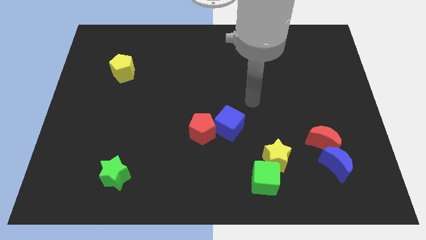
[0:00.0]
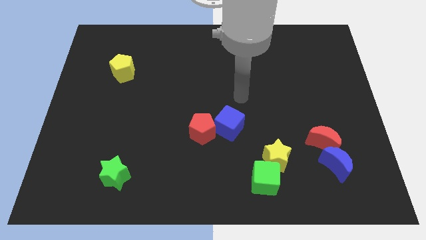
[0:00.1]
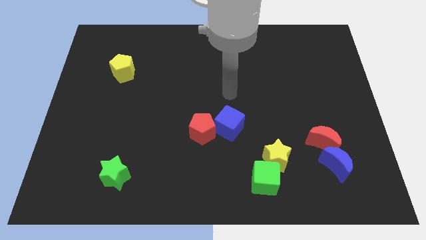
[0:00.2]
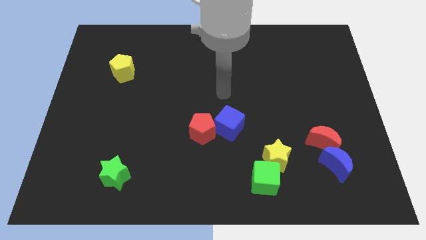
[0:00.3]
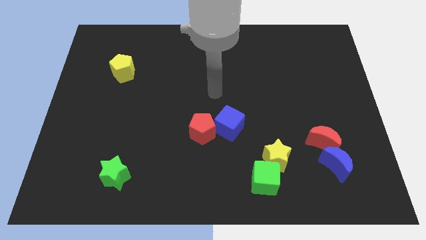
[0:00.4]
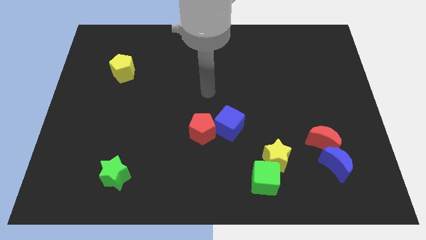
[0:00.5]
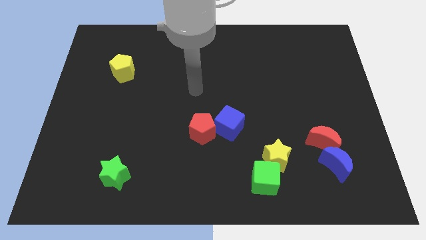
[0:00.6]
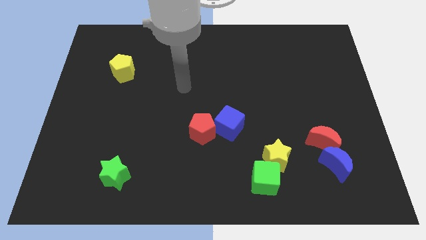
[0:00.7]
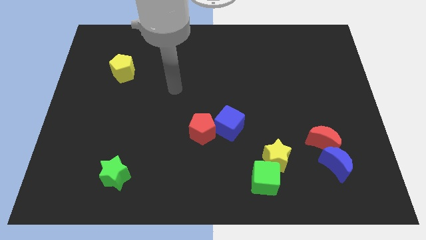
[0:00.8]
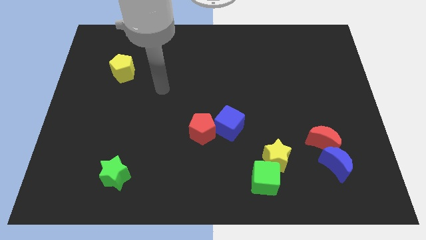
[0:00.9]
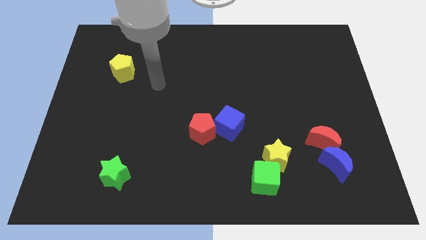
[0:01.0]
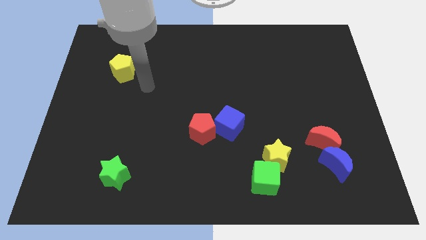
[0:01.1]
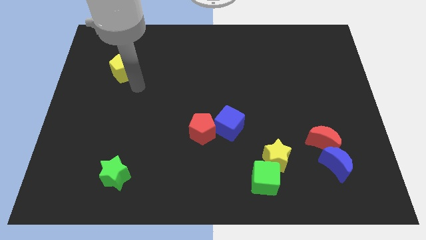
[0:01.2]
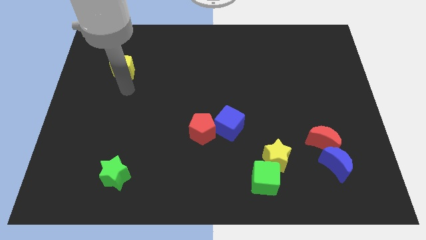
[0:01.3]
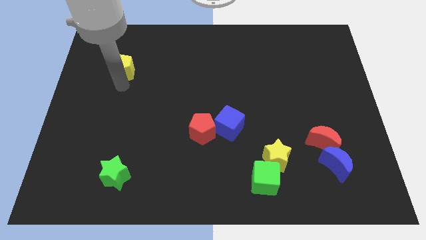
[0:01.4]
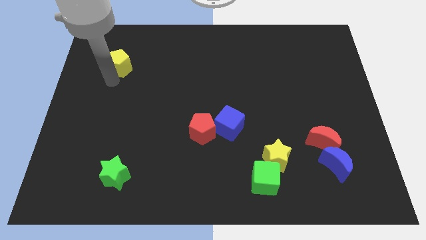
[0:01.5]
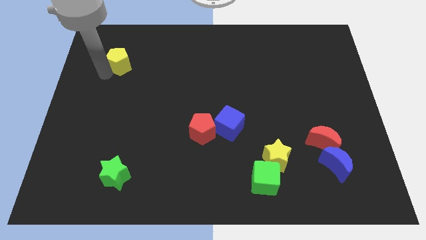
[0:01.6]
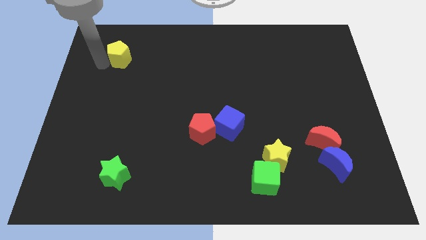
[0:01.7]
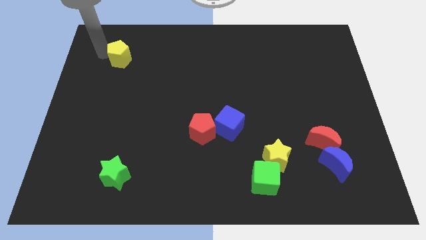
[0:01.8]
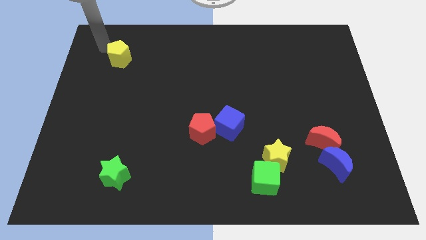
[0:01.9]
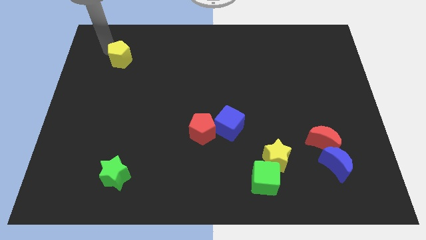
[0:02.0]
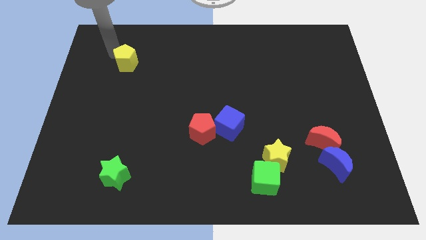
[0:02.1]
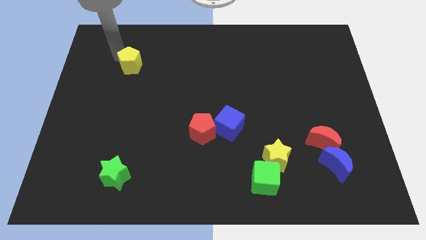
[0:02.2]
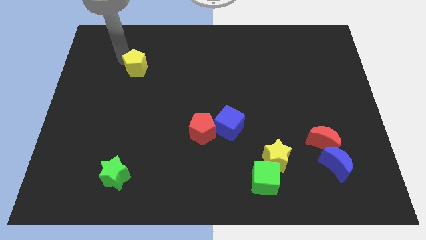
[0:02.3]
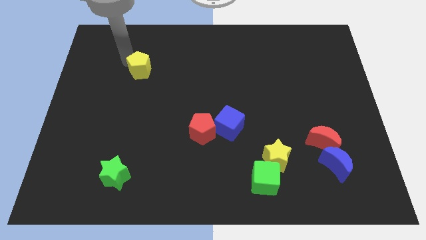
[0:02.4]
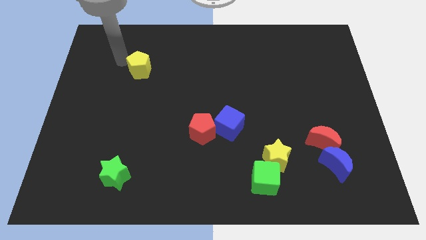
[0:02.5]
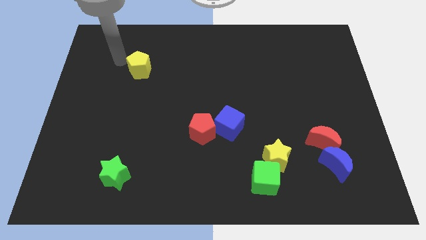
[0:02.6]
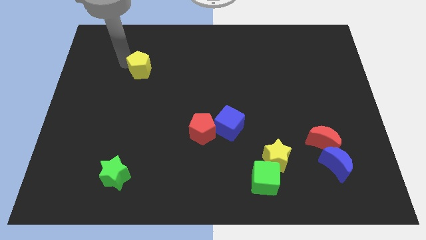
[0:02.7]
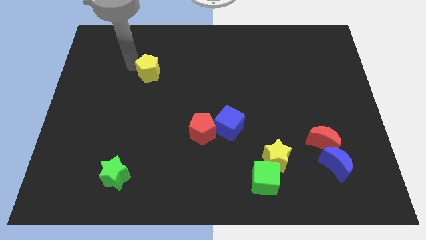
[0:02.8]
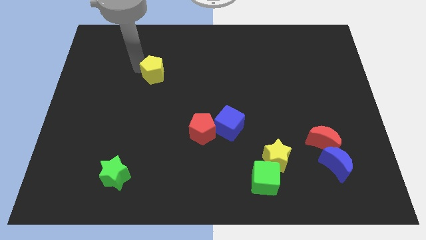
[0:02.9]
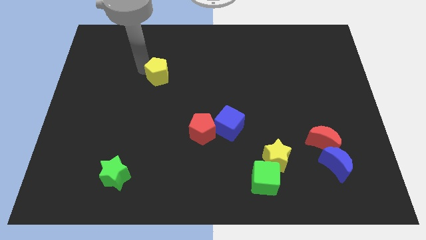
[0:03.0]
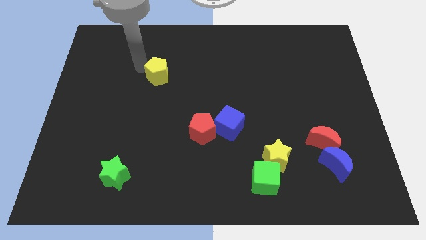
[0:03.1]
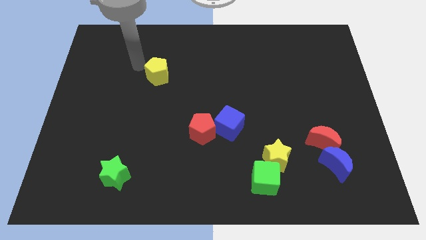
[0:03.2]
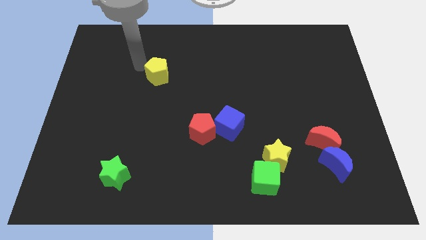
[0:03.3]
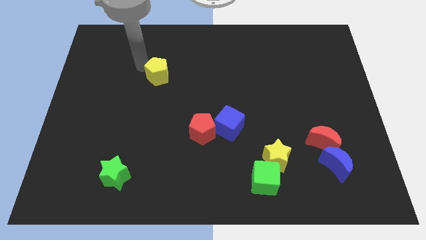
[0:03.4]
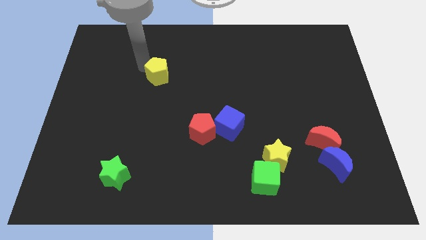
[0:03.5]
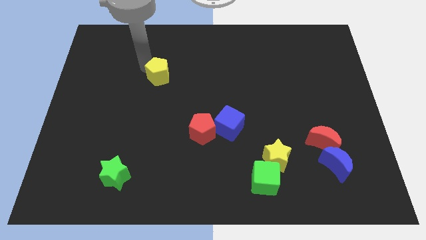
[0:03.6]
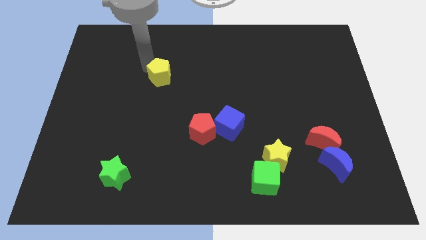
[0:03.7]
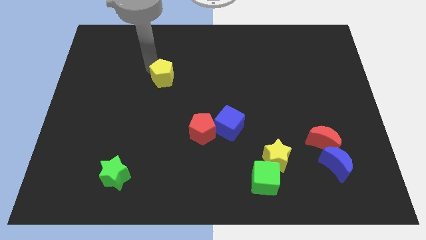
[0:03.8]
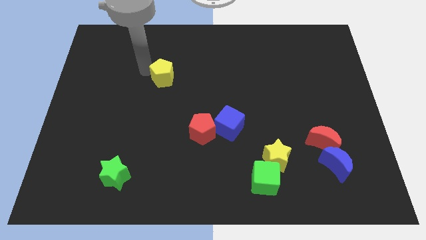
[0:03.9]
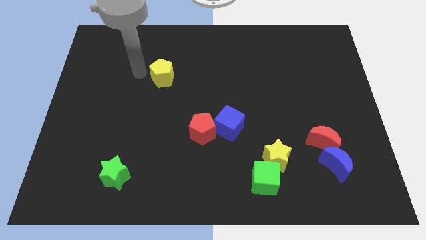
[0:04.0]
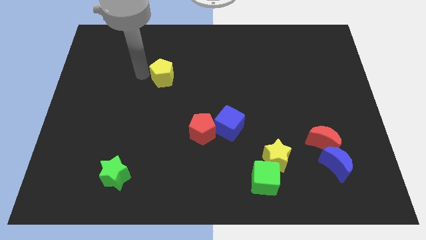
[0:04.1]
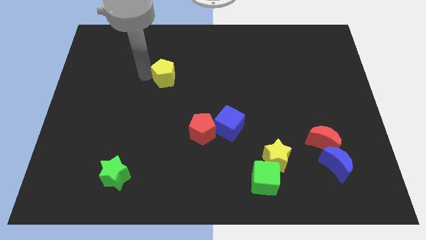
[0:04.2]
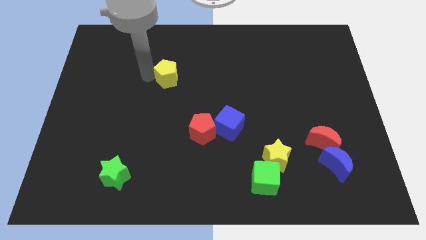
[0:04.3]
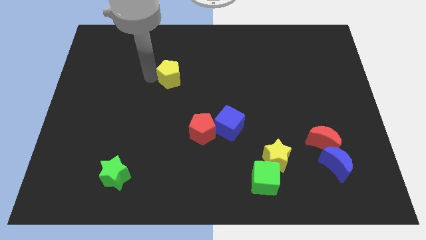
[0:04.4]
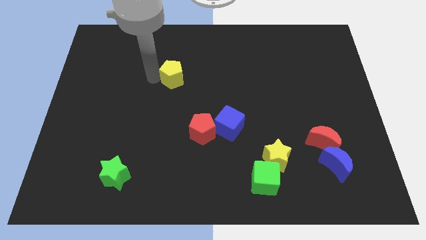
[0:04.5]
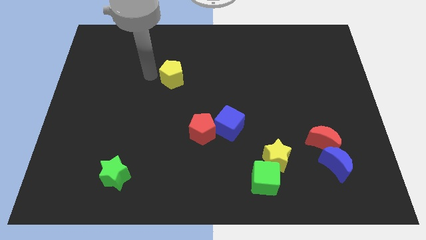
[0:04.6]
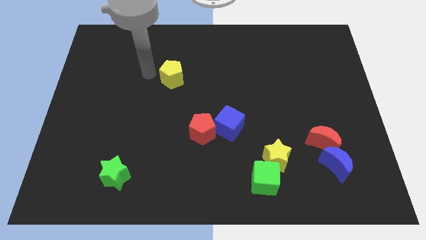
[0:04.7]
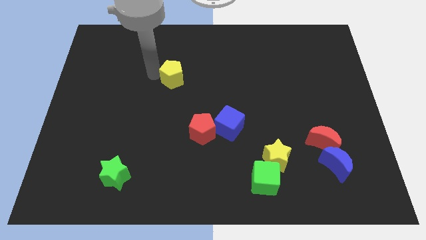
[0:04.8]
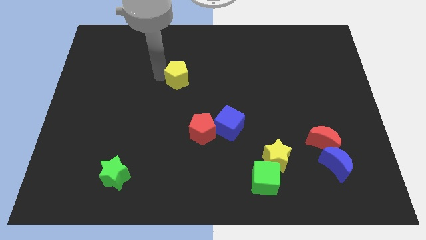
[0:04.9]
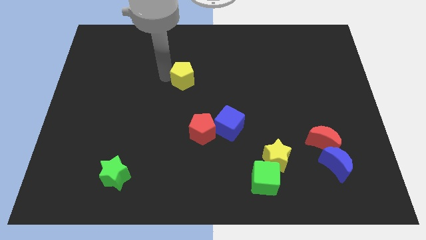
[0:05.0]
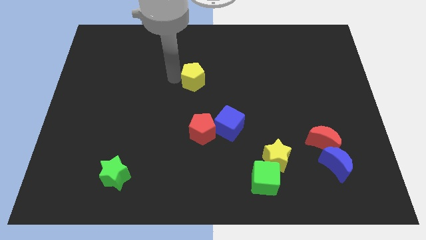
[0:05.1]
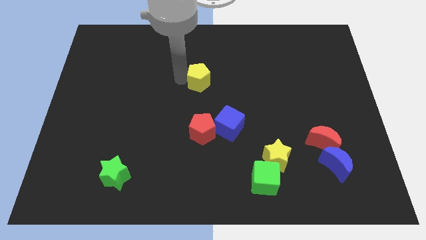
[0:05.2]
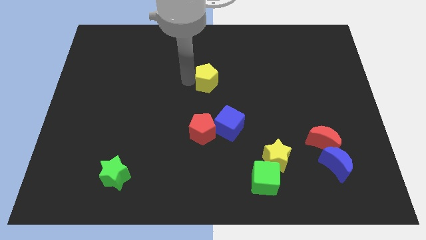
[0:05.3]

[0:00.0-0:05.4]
push the yellow pentagon right

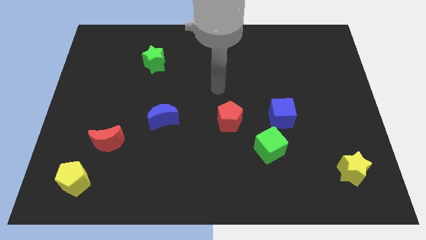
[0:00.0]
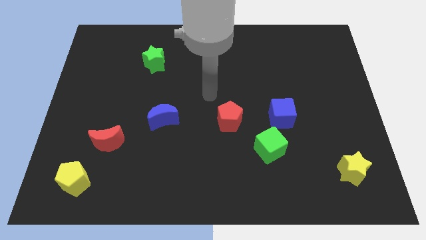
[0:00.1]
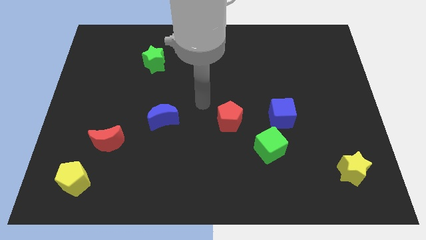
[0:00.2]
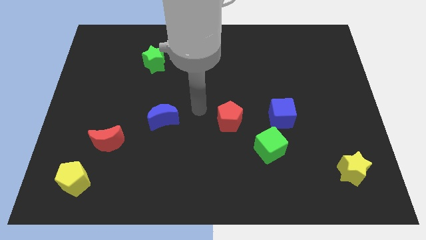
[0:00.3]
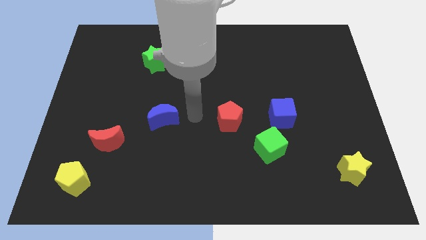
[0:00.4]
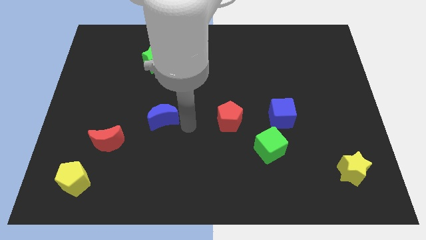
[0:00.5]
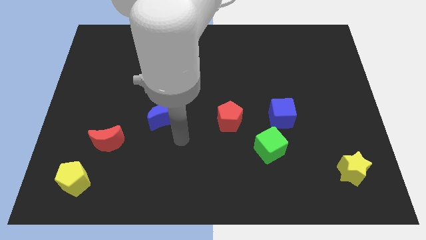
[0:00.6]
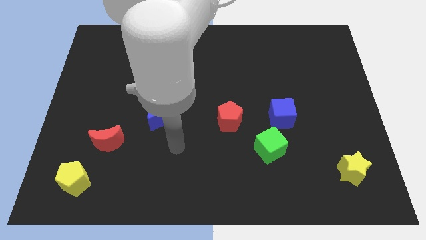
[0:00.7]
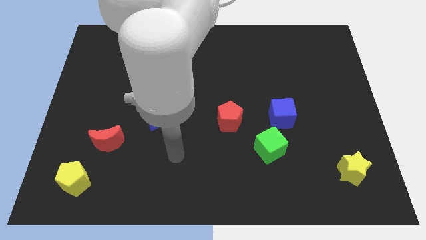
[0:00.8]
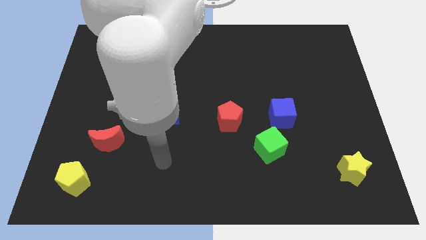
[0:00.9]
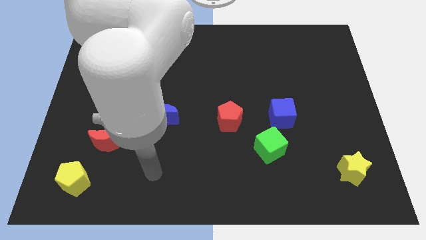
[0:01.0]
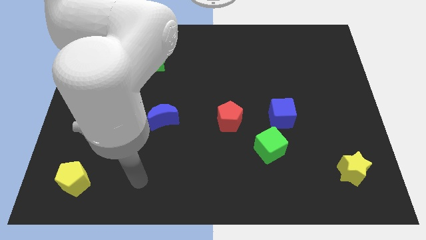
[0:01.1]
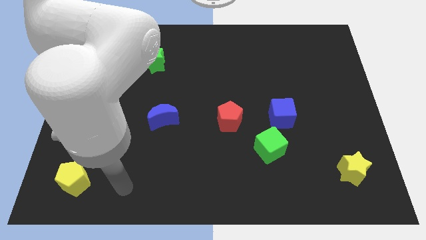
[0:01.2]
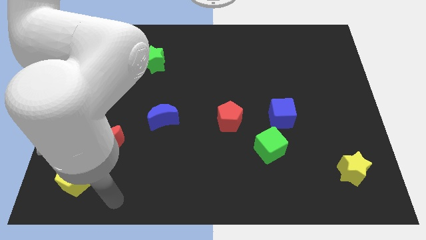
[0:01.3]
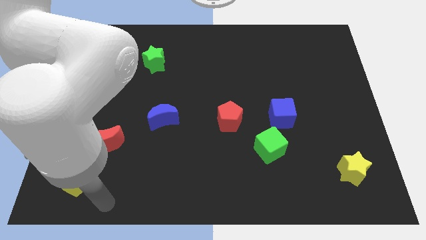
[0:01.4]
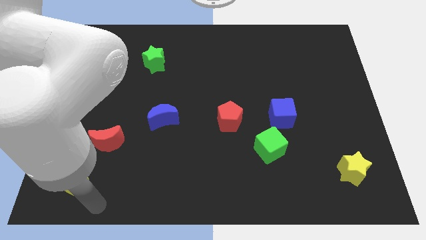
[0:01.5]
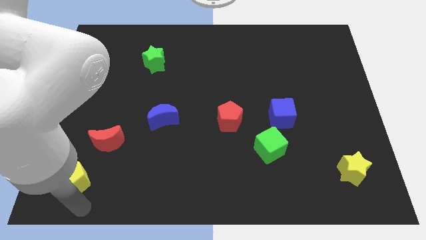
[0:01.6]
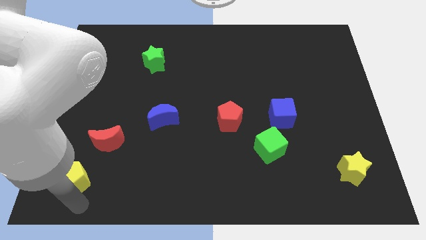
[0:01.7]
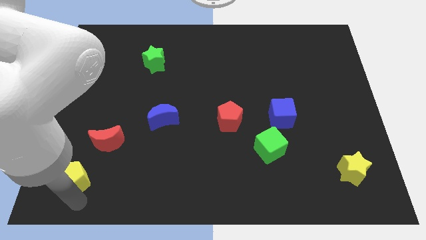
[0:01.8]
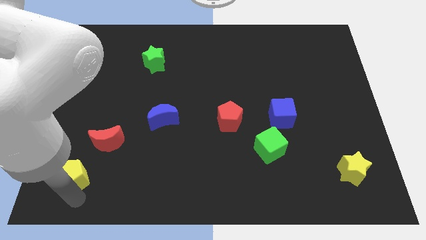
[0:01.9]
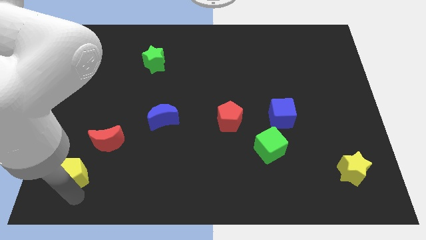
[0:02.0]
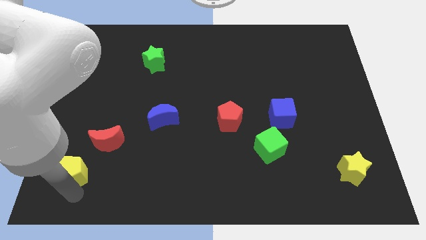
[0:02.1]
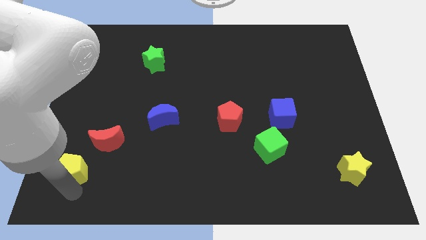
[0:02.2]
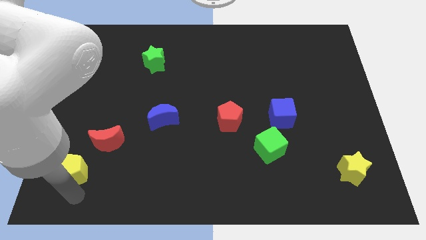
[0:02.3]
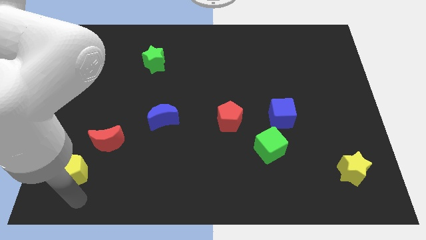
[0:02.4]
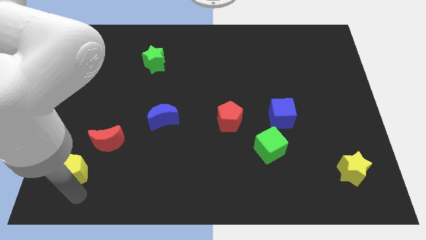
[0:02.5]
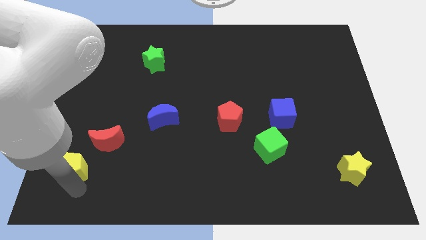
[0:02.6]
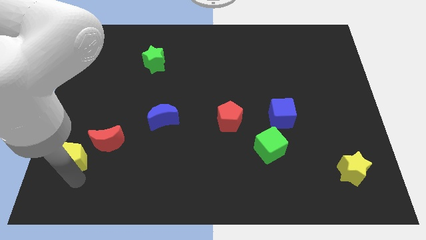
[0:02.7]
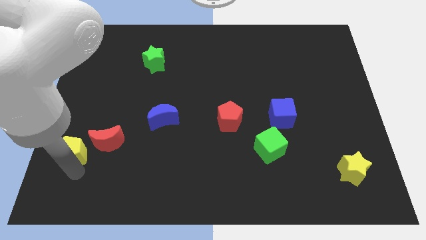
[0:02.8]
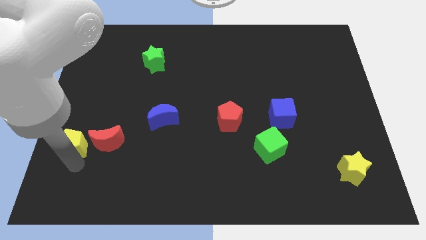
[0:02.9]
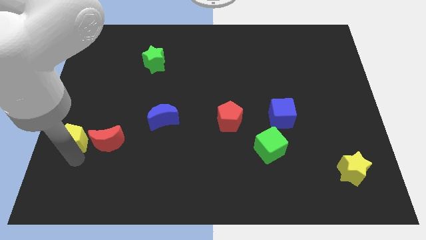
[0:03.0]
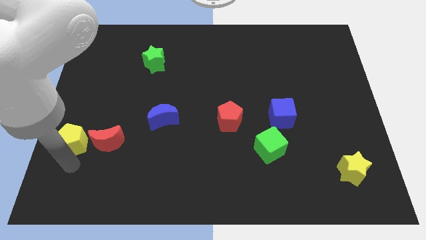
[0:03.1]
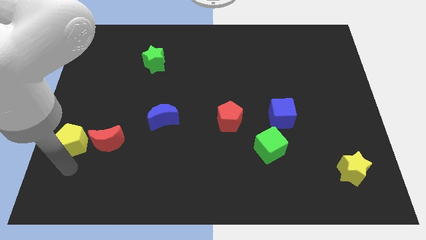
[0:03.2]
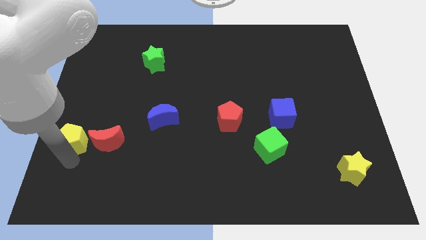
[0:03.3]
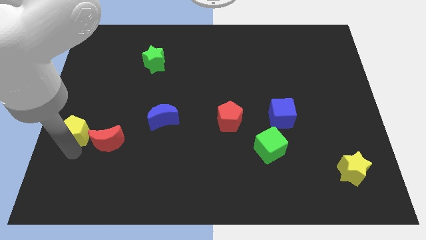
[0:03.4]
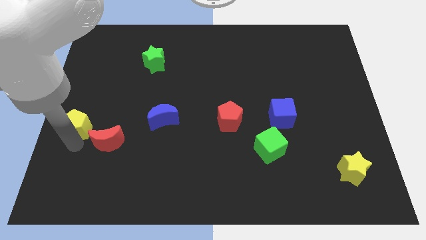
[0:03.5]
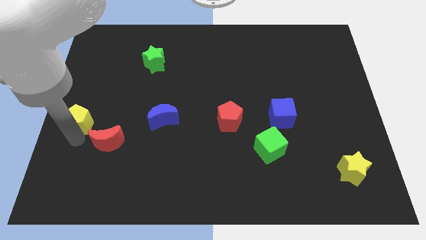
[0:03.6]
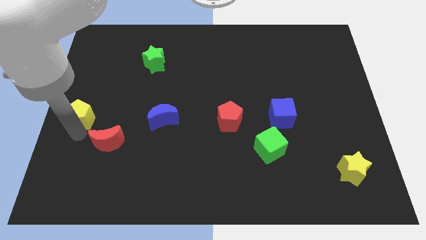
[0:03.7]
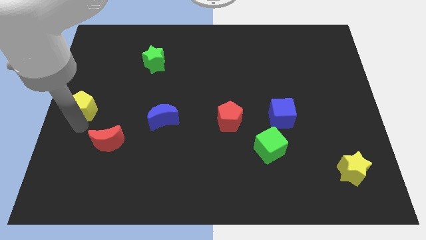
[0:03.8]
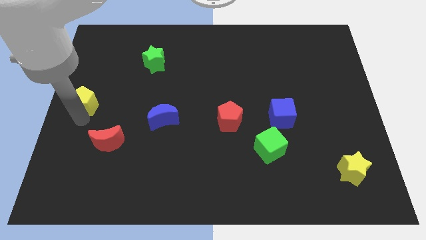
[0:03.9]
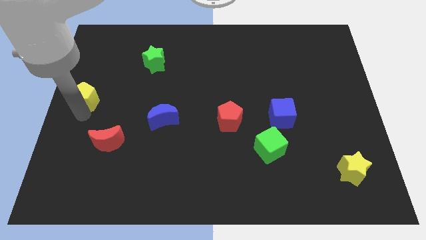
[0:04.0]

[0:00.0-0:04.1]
push the yellow pentagon upwards
